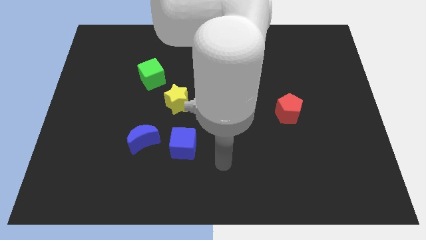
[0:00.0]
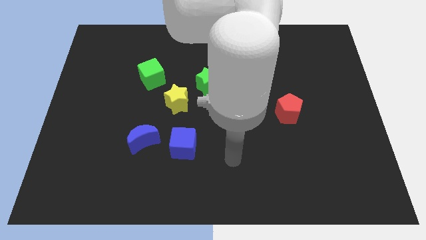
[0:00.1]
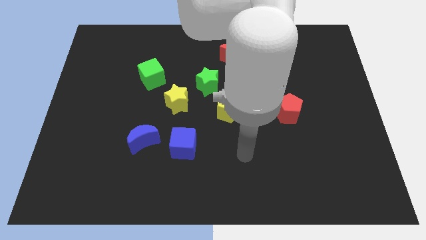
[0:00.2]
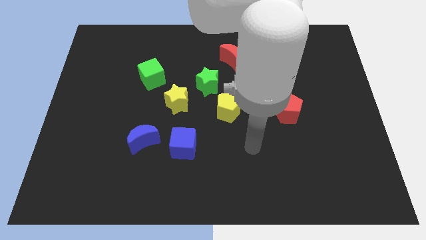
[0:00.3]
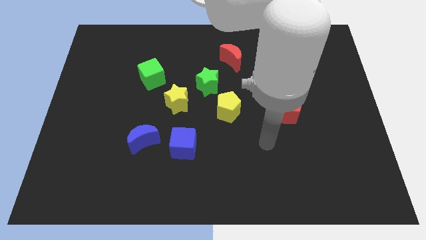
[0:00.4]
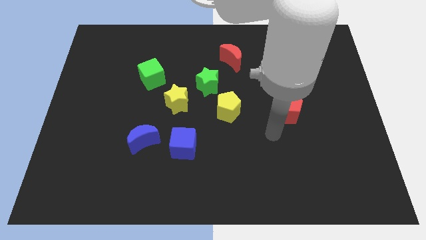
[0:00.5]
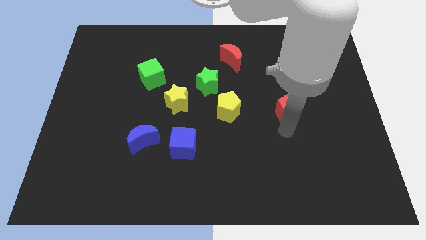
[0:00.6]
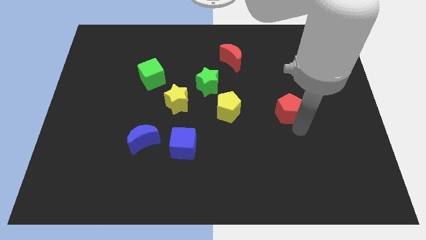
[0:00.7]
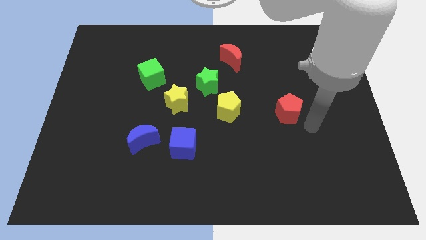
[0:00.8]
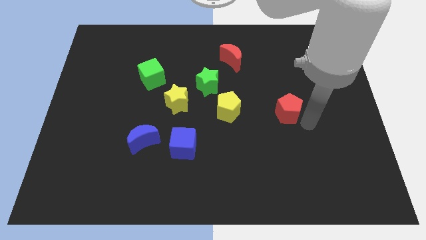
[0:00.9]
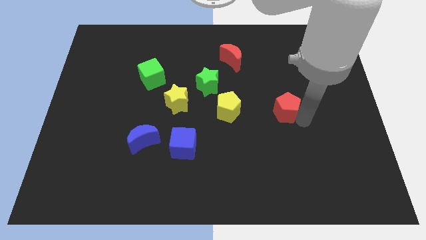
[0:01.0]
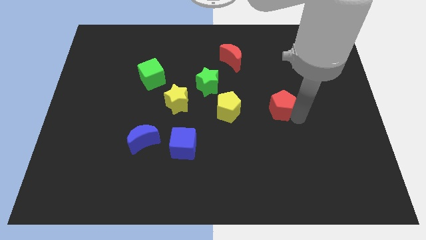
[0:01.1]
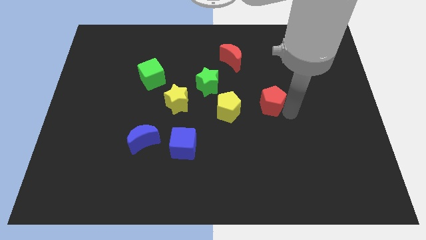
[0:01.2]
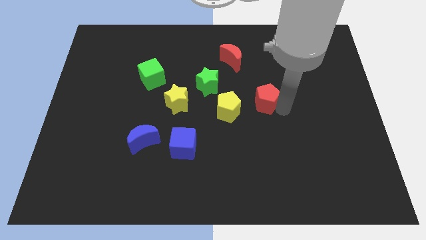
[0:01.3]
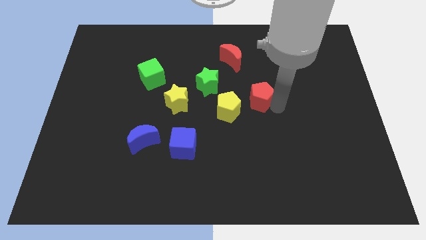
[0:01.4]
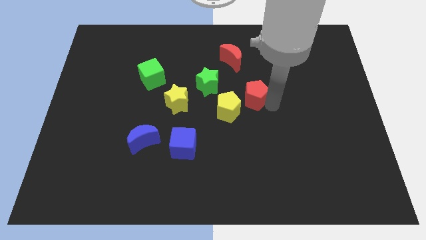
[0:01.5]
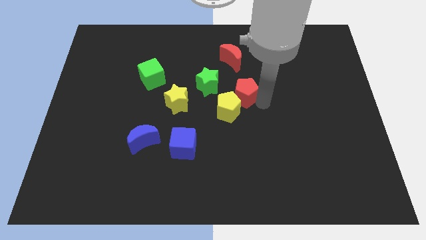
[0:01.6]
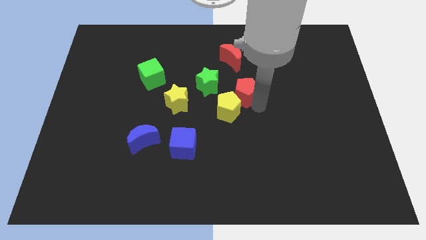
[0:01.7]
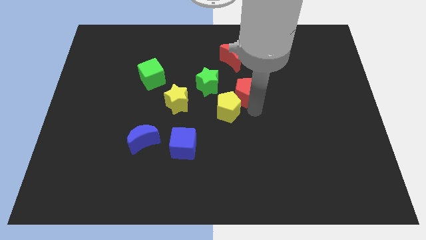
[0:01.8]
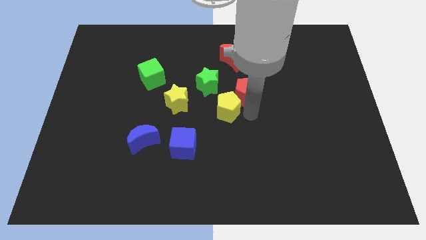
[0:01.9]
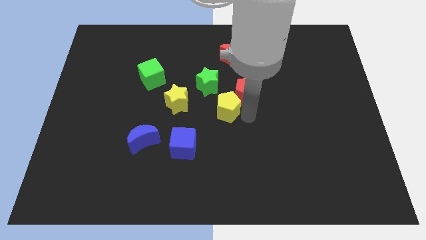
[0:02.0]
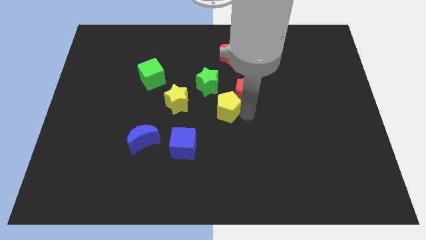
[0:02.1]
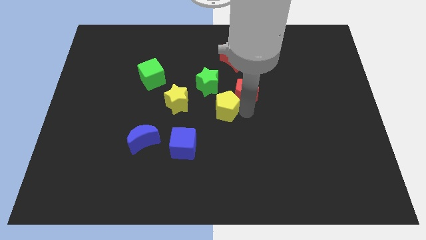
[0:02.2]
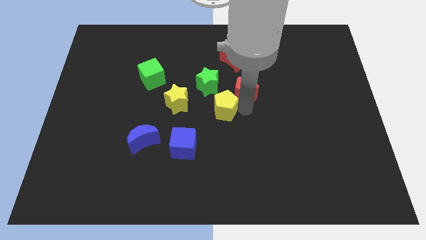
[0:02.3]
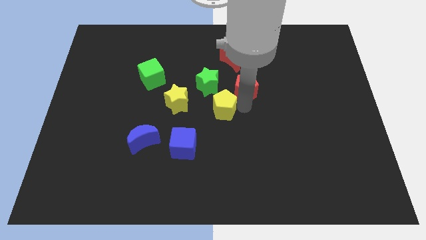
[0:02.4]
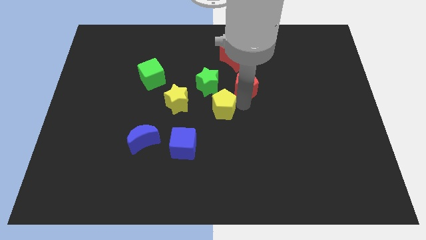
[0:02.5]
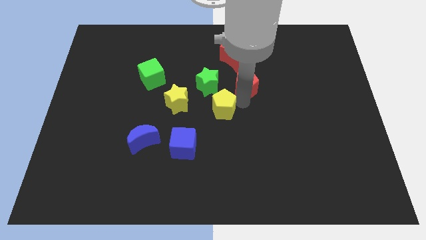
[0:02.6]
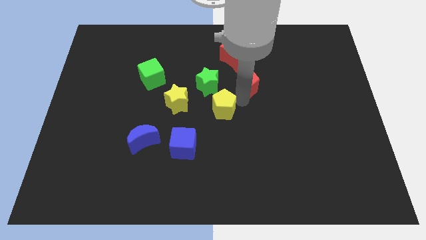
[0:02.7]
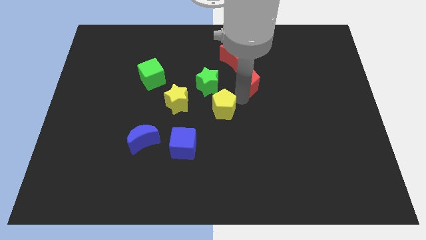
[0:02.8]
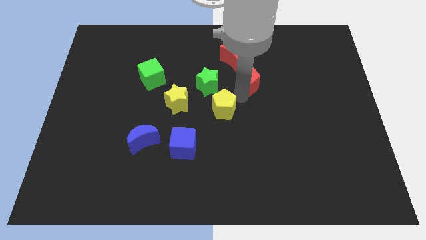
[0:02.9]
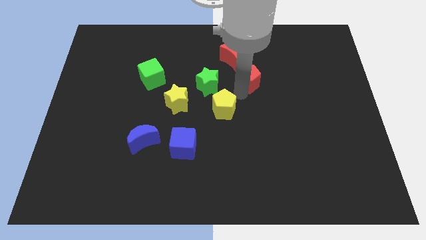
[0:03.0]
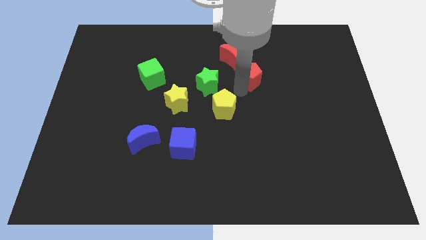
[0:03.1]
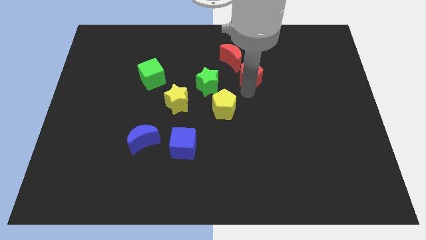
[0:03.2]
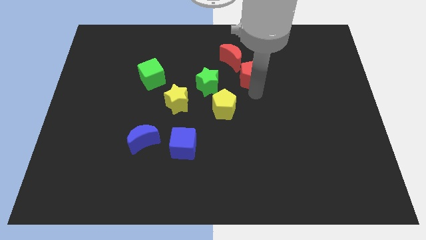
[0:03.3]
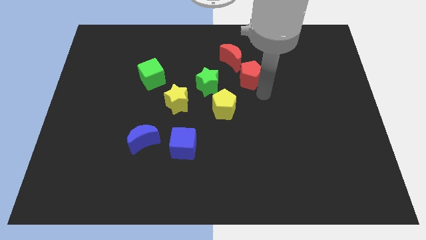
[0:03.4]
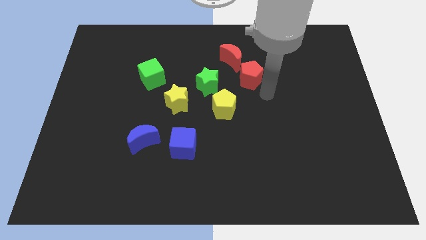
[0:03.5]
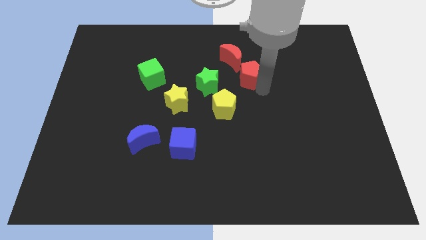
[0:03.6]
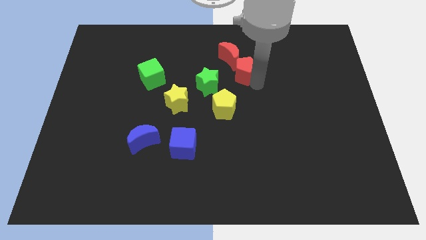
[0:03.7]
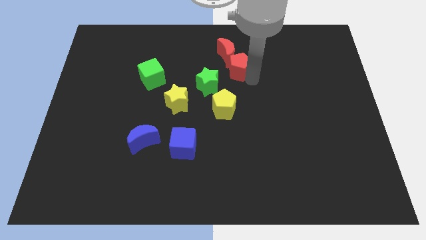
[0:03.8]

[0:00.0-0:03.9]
put the red pentagon towards the red moon

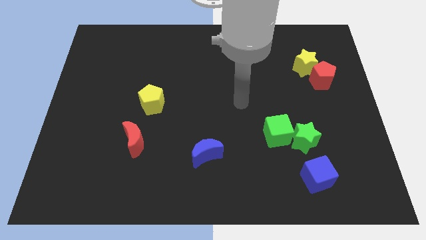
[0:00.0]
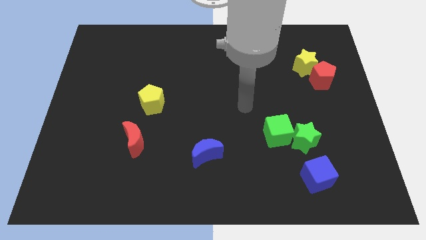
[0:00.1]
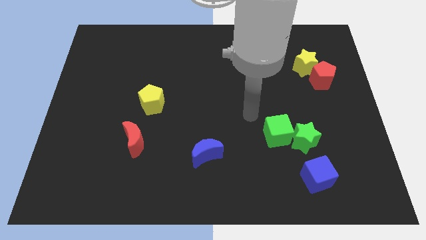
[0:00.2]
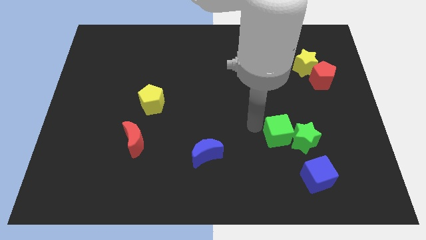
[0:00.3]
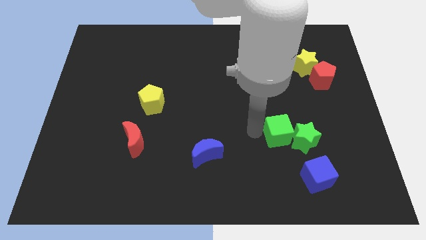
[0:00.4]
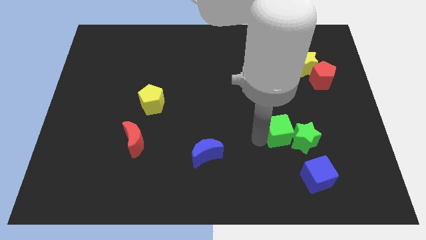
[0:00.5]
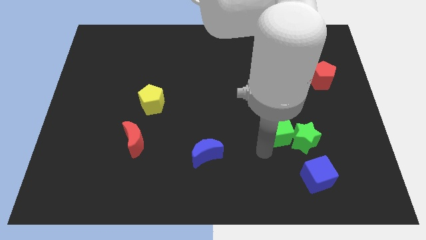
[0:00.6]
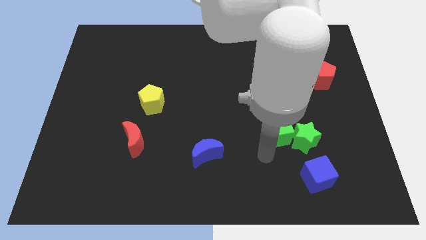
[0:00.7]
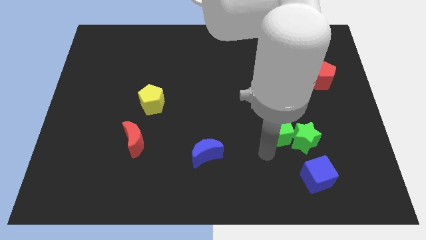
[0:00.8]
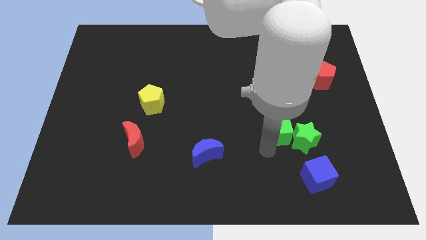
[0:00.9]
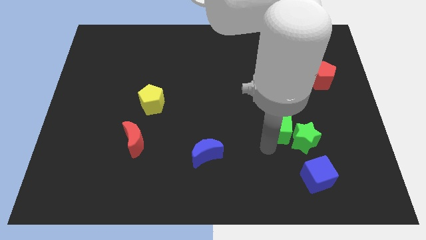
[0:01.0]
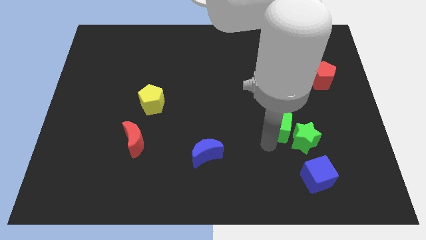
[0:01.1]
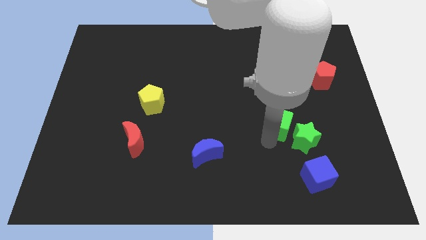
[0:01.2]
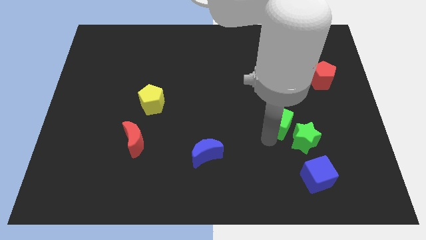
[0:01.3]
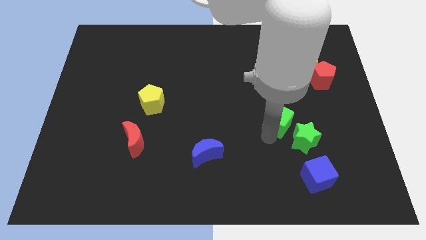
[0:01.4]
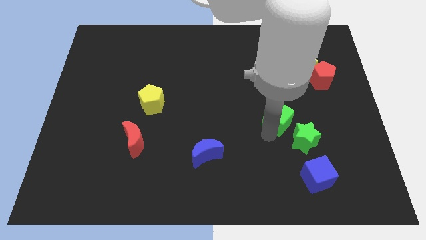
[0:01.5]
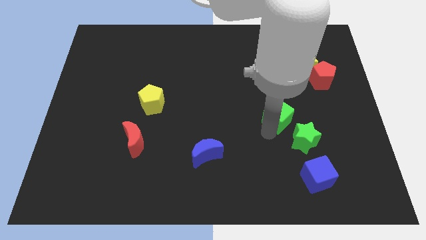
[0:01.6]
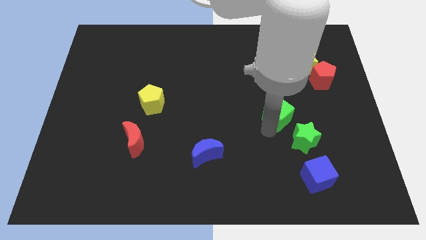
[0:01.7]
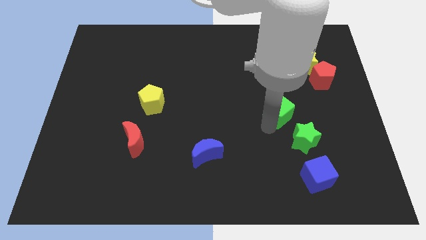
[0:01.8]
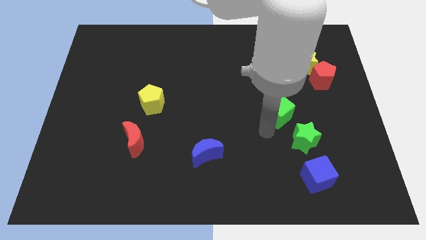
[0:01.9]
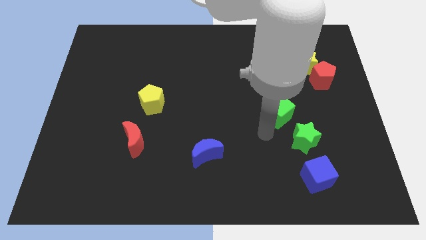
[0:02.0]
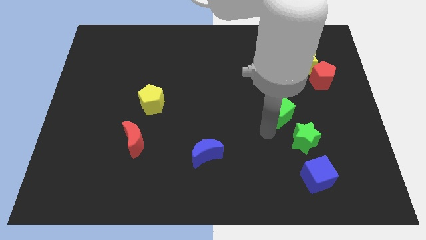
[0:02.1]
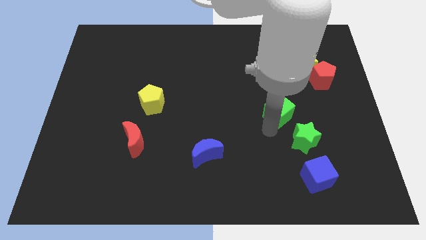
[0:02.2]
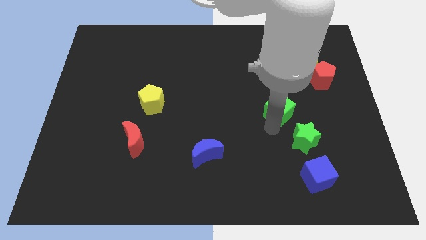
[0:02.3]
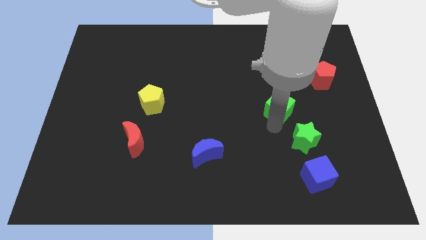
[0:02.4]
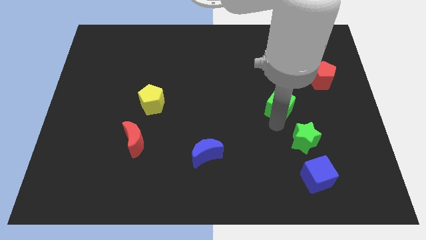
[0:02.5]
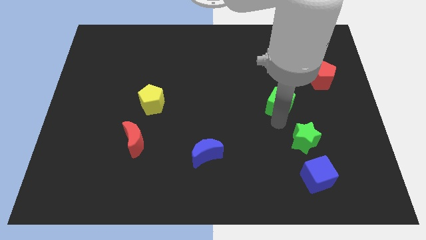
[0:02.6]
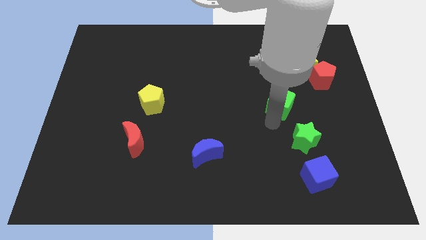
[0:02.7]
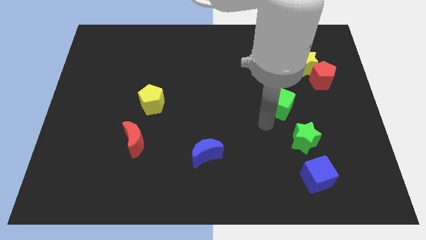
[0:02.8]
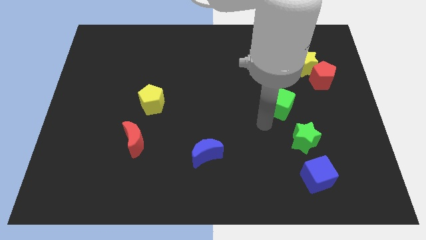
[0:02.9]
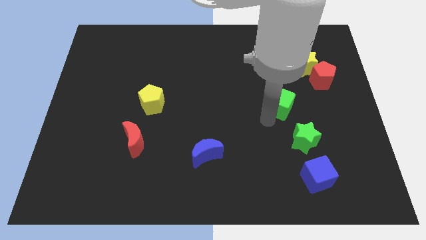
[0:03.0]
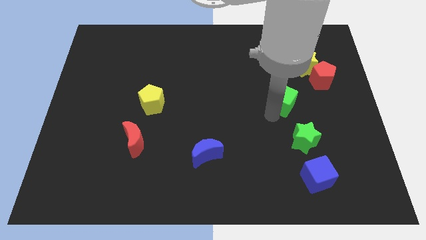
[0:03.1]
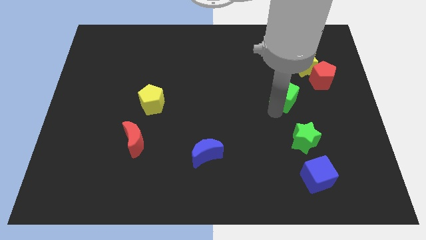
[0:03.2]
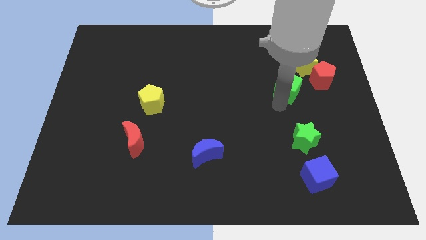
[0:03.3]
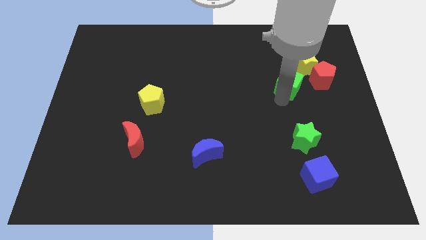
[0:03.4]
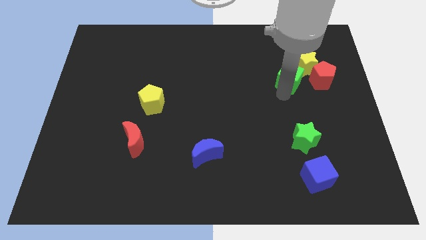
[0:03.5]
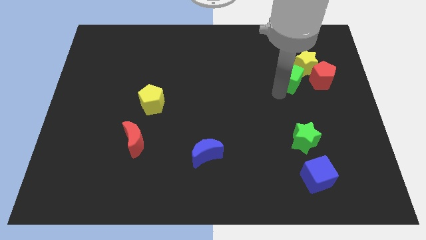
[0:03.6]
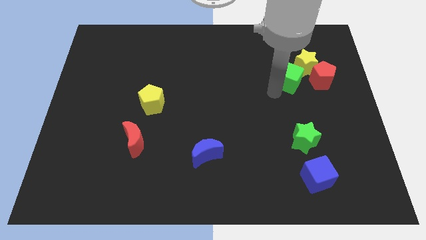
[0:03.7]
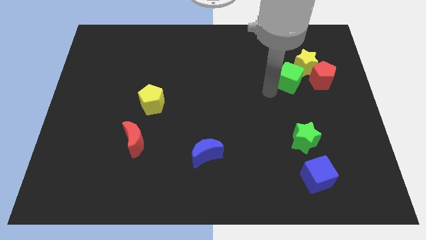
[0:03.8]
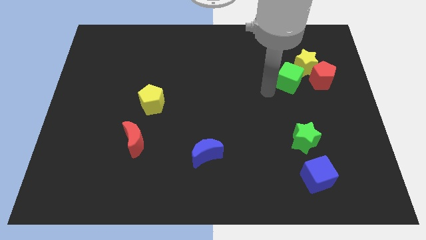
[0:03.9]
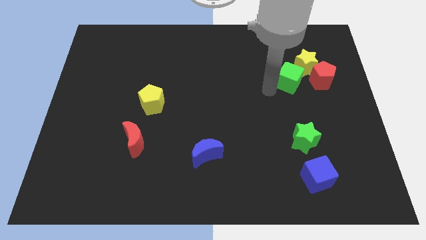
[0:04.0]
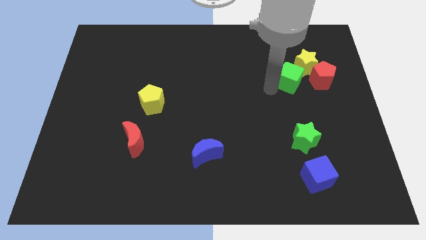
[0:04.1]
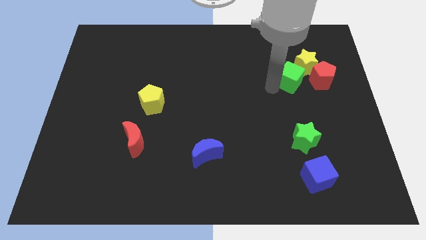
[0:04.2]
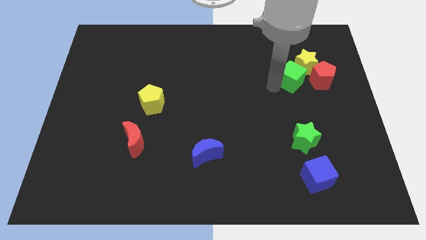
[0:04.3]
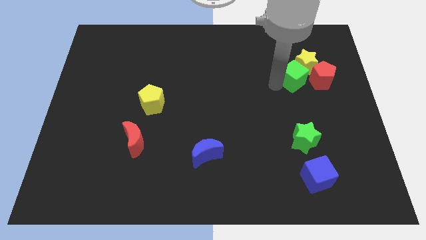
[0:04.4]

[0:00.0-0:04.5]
put the green cube next to the yellow star
